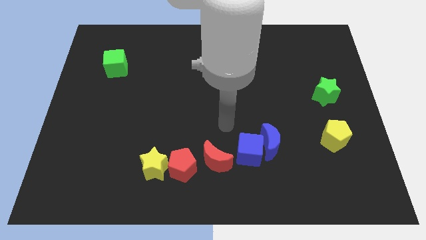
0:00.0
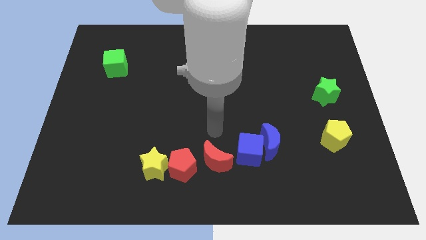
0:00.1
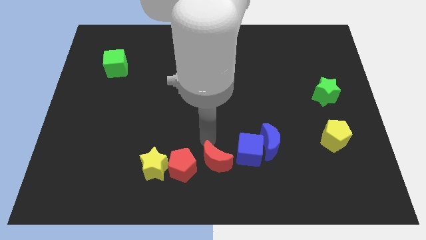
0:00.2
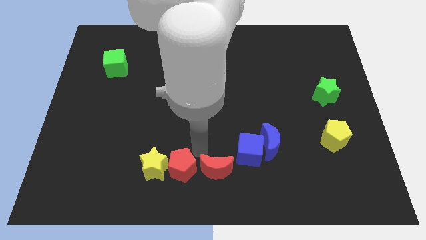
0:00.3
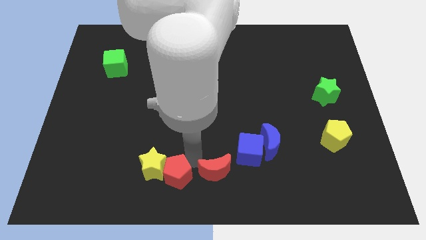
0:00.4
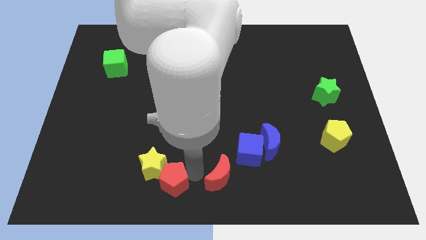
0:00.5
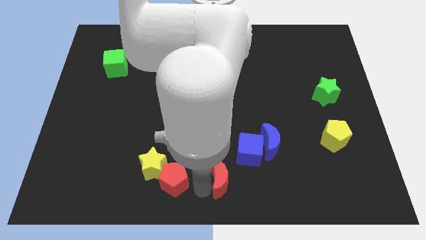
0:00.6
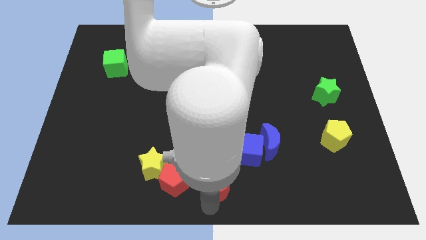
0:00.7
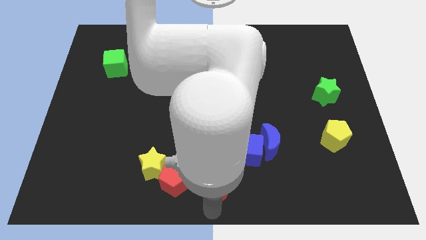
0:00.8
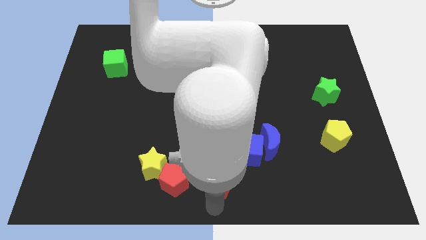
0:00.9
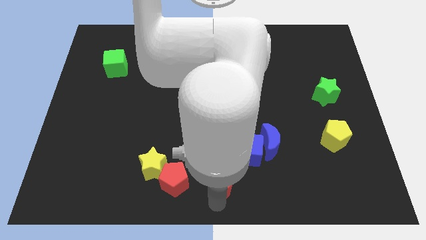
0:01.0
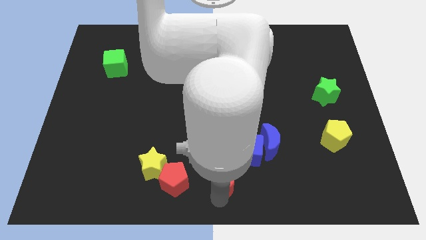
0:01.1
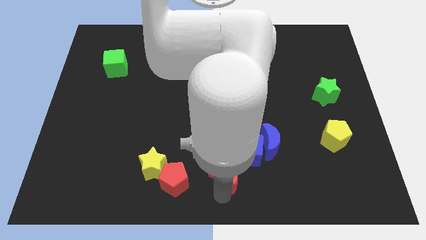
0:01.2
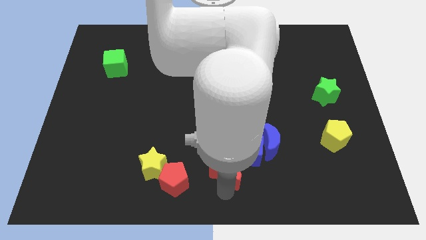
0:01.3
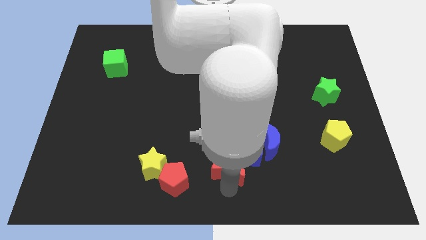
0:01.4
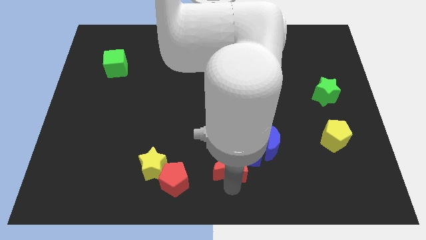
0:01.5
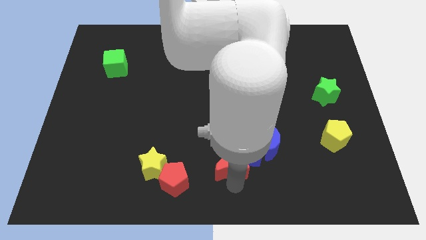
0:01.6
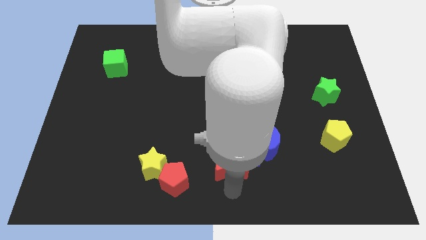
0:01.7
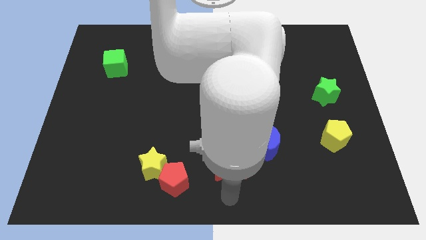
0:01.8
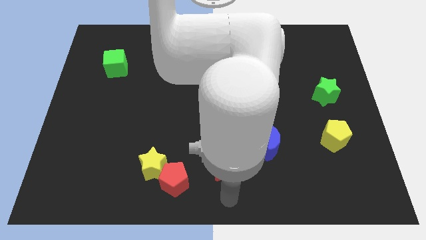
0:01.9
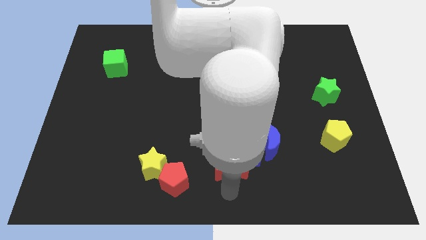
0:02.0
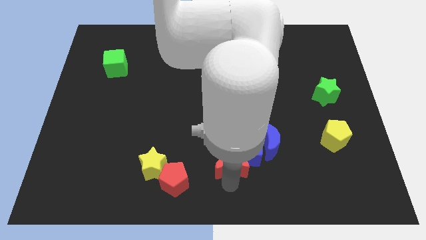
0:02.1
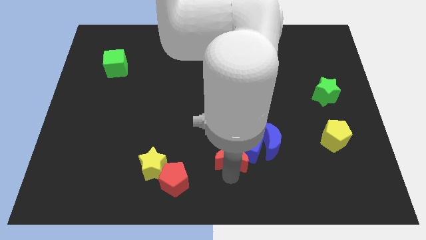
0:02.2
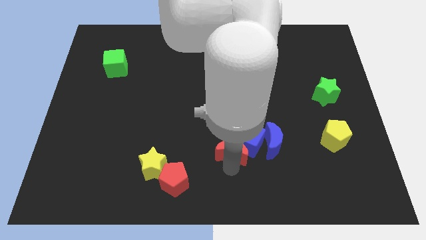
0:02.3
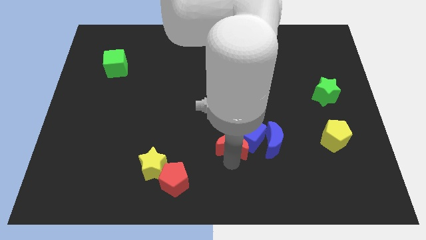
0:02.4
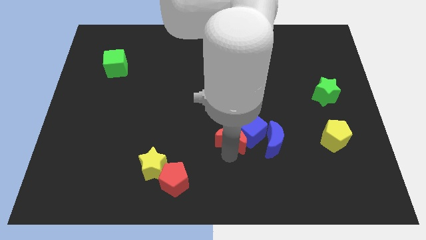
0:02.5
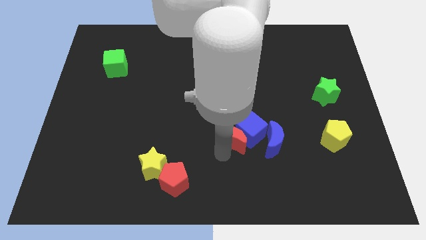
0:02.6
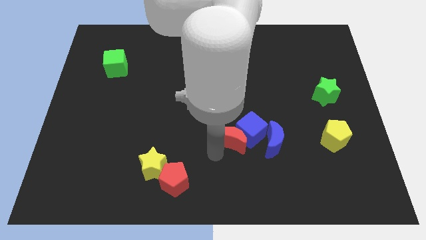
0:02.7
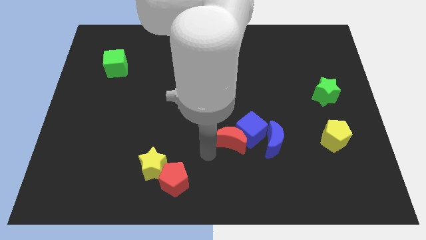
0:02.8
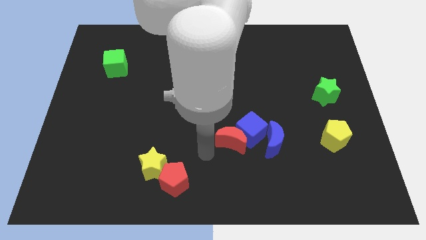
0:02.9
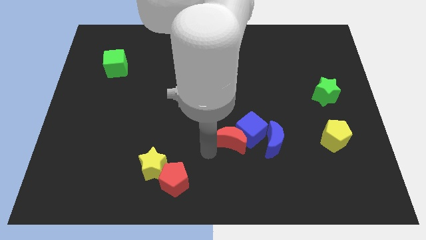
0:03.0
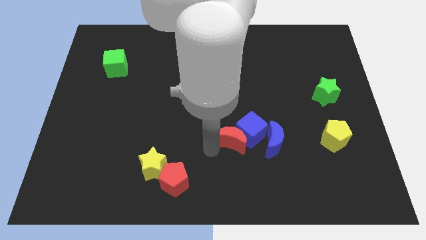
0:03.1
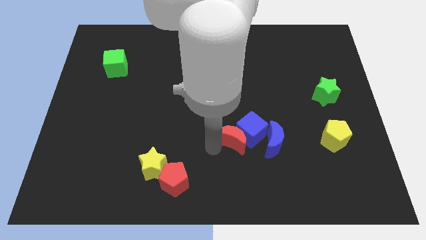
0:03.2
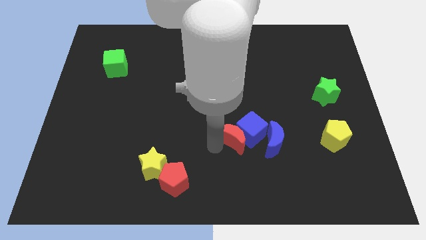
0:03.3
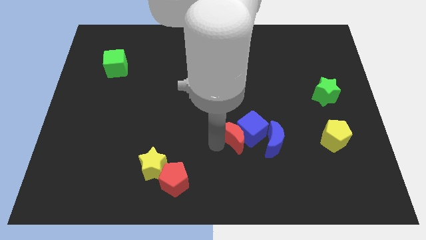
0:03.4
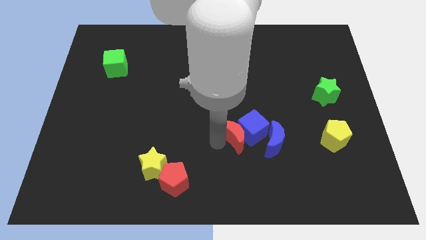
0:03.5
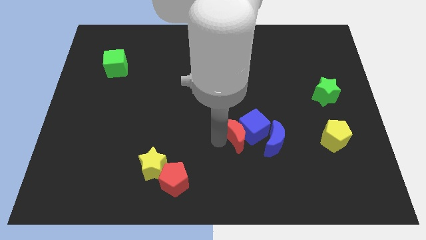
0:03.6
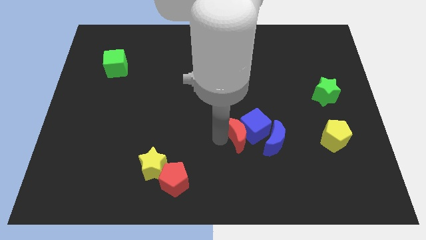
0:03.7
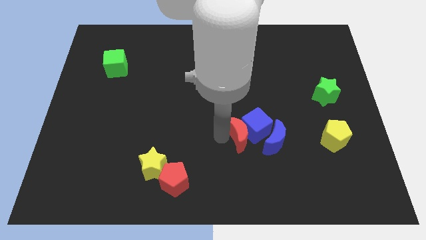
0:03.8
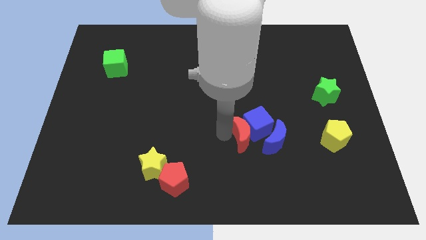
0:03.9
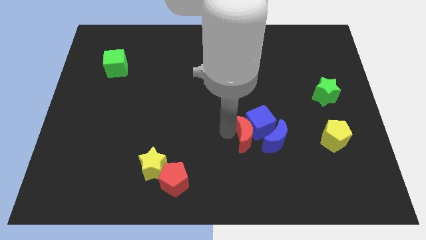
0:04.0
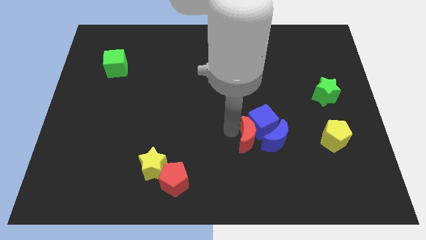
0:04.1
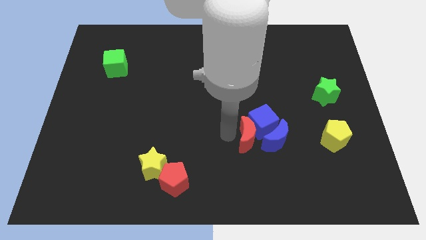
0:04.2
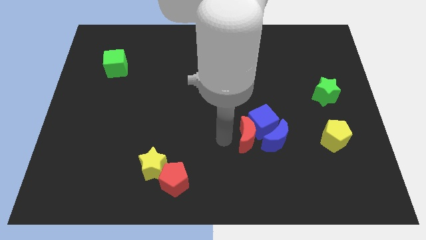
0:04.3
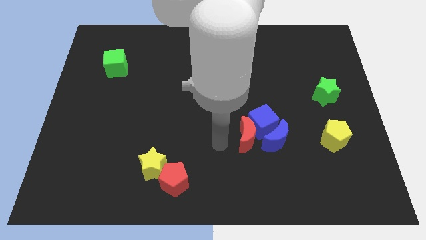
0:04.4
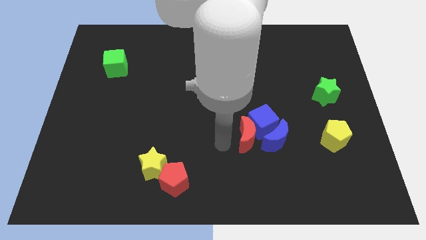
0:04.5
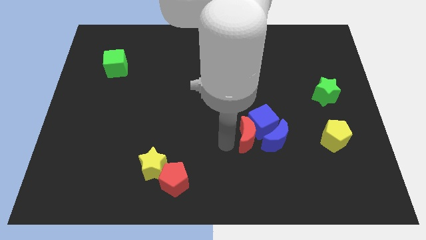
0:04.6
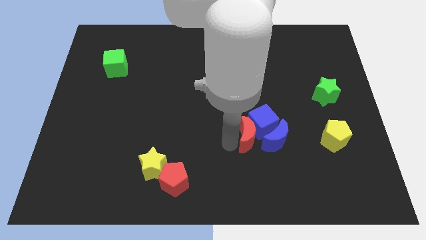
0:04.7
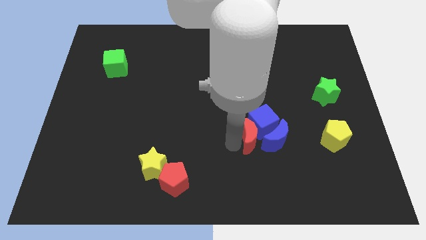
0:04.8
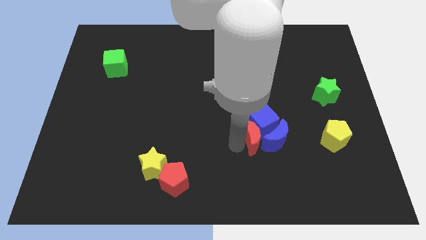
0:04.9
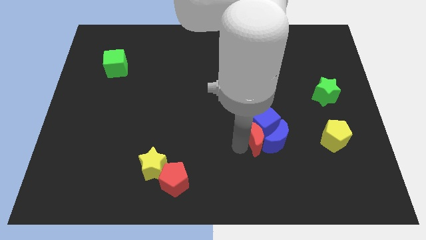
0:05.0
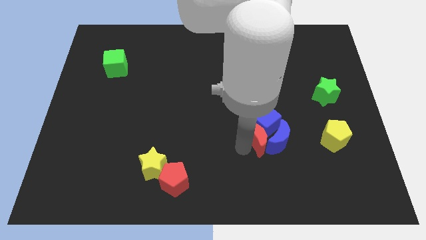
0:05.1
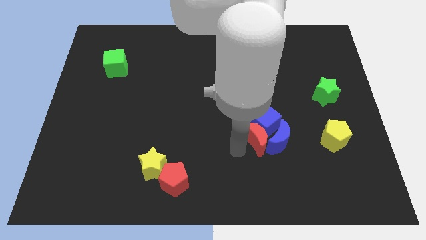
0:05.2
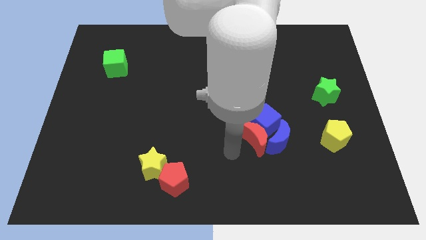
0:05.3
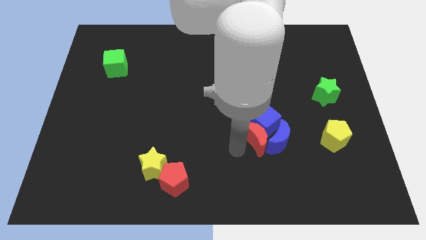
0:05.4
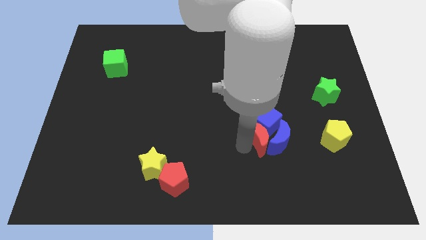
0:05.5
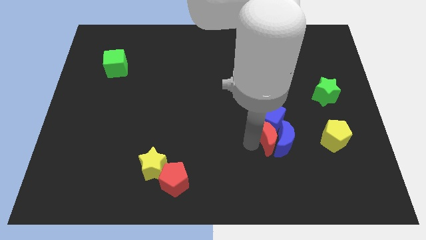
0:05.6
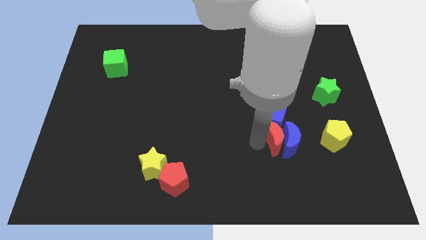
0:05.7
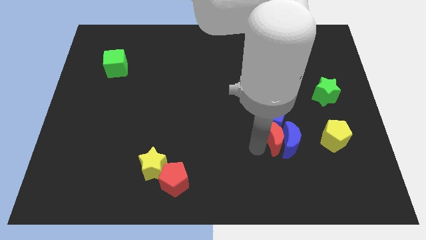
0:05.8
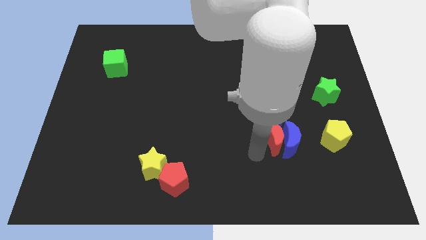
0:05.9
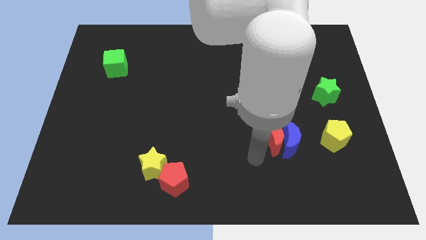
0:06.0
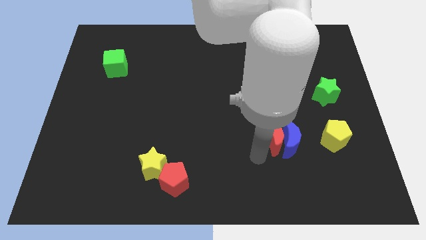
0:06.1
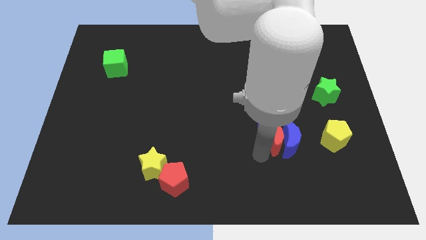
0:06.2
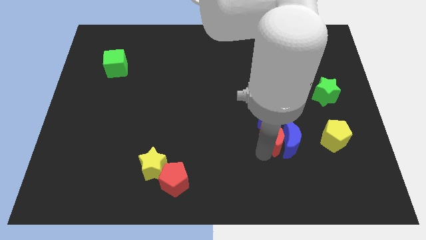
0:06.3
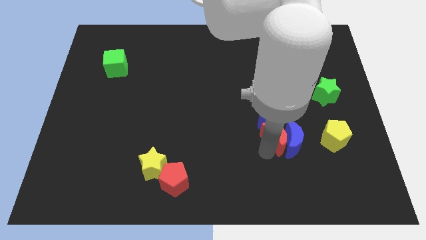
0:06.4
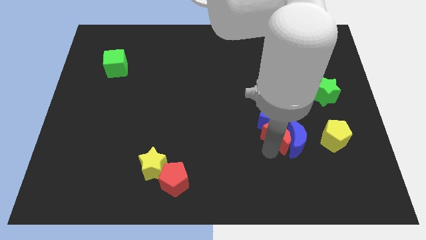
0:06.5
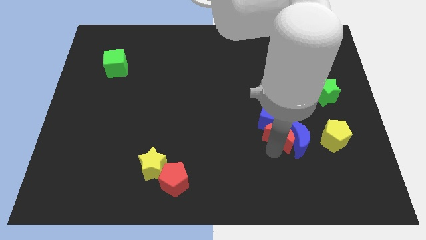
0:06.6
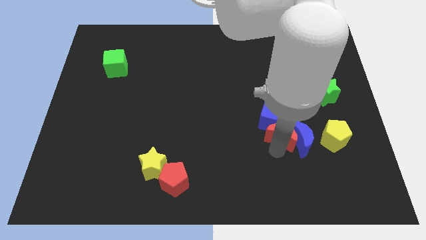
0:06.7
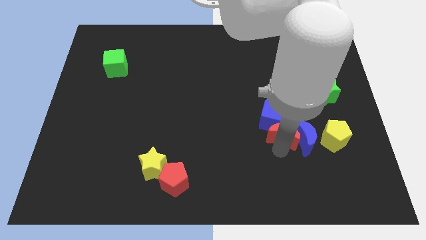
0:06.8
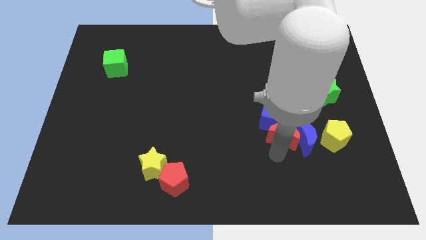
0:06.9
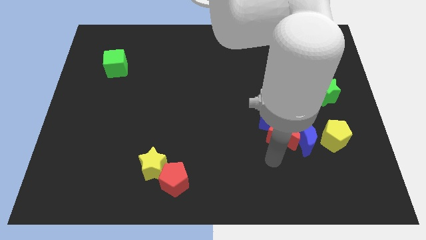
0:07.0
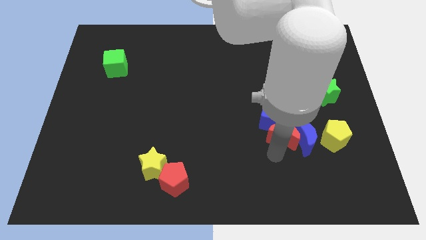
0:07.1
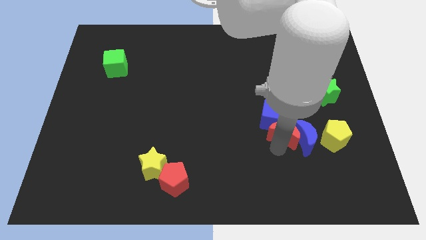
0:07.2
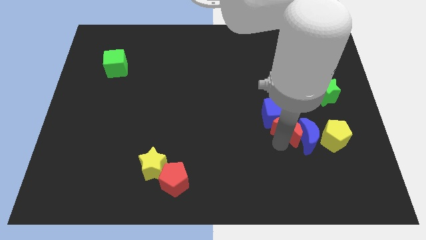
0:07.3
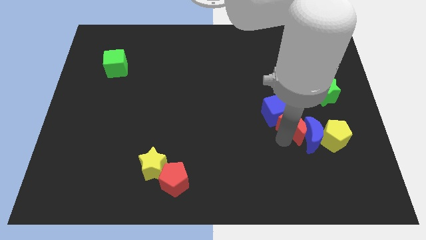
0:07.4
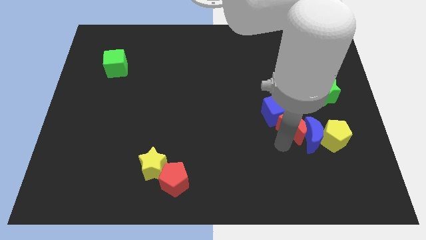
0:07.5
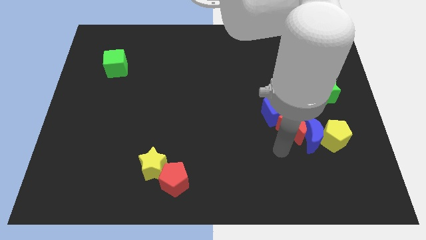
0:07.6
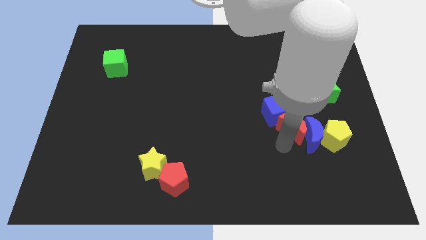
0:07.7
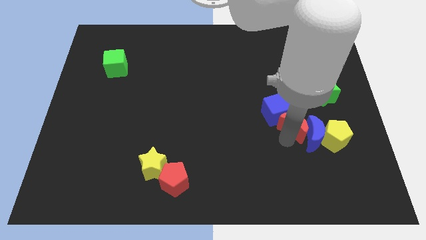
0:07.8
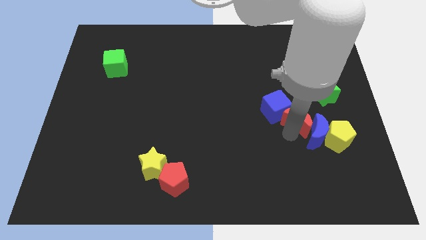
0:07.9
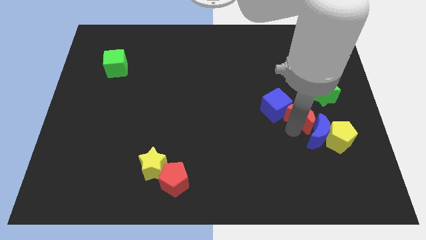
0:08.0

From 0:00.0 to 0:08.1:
move the red moon upwards and then to the right
